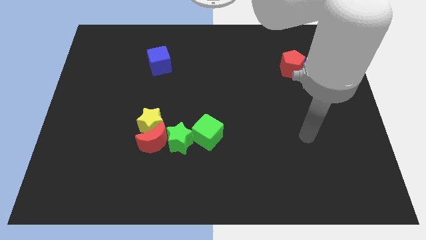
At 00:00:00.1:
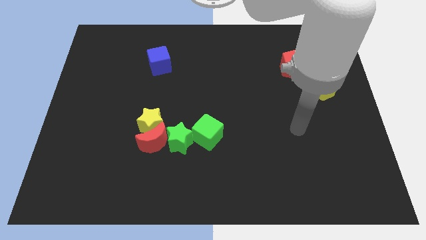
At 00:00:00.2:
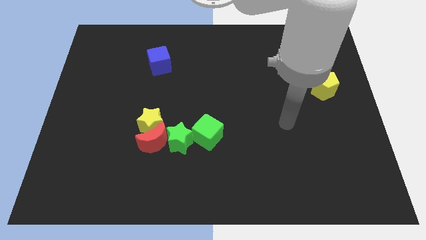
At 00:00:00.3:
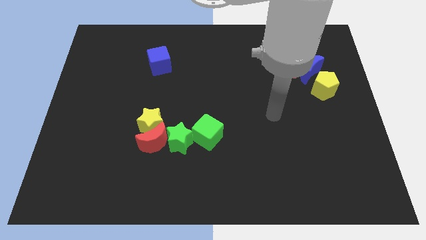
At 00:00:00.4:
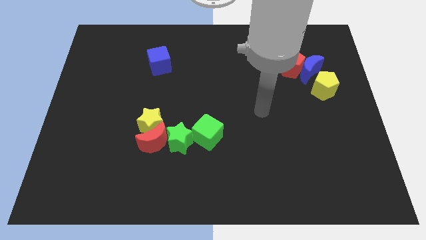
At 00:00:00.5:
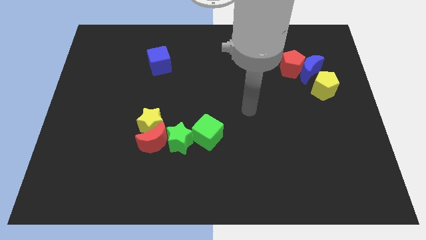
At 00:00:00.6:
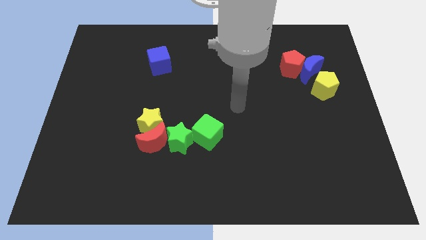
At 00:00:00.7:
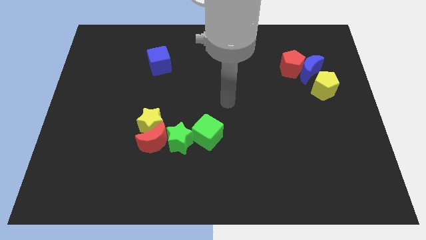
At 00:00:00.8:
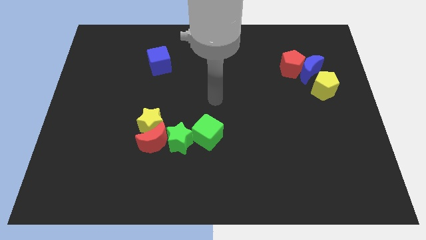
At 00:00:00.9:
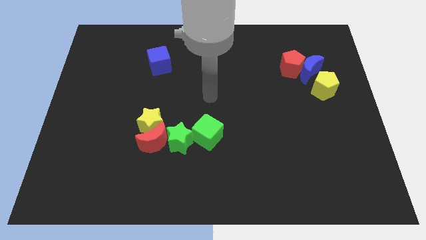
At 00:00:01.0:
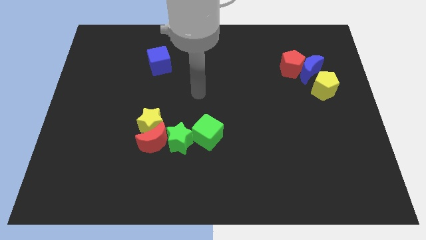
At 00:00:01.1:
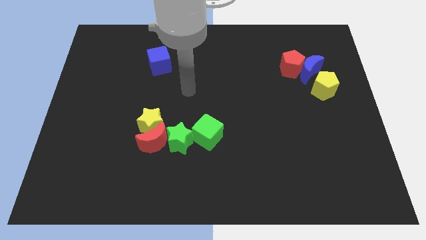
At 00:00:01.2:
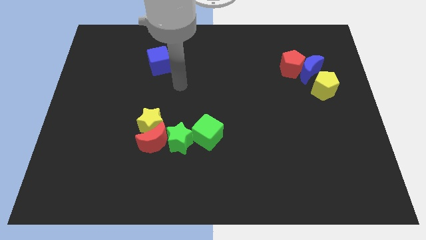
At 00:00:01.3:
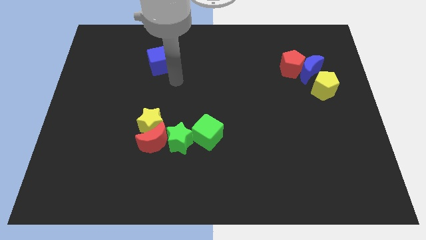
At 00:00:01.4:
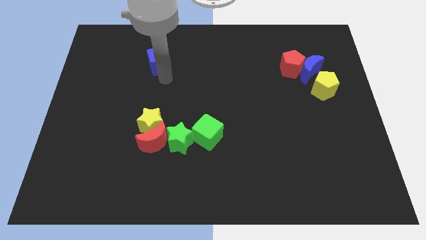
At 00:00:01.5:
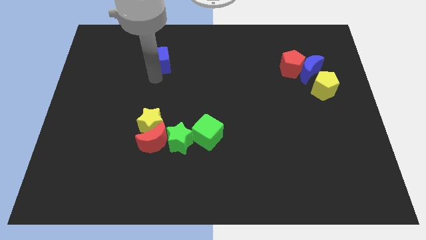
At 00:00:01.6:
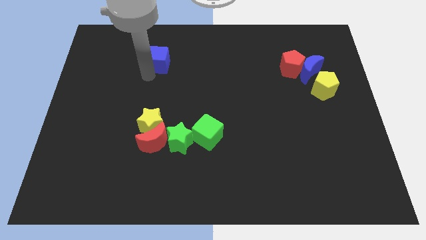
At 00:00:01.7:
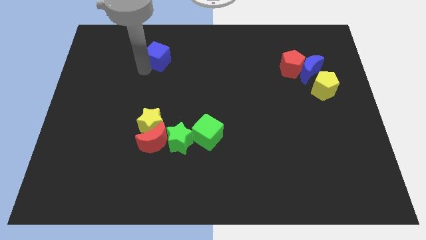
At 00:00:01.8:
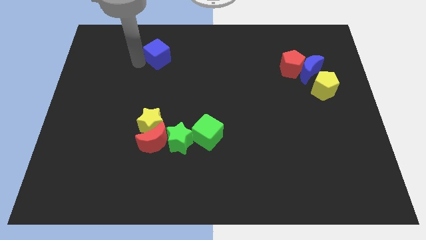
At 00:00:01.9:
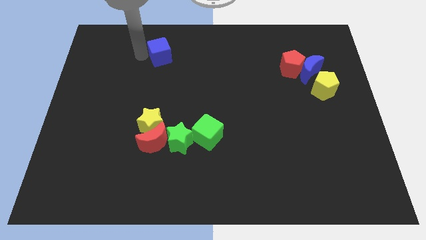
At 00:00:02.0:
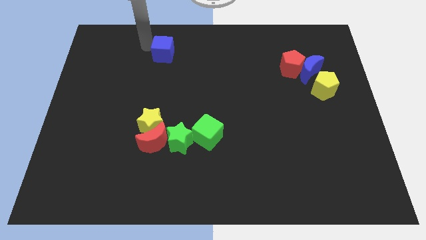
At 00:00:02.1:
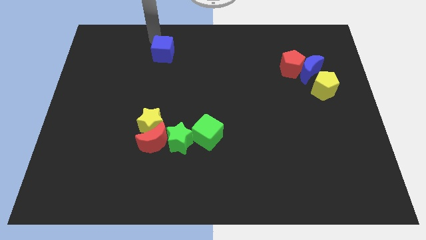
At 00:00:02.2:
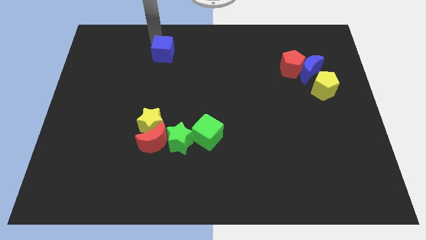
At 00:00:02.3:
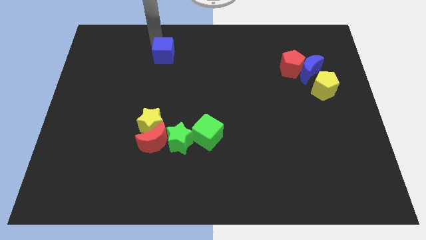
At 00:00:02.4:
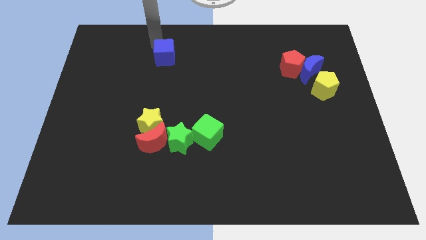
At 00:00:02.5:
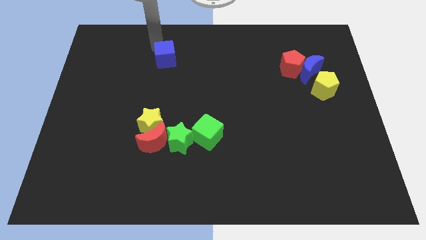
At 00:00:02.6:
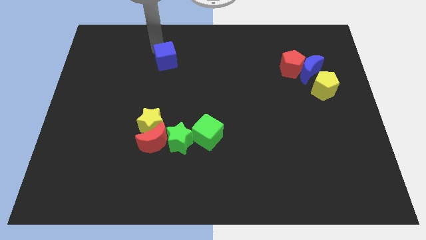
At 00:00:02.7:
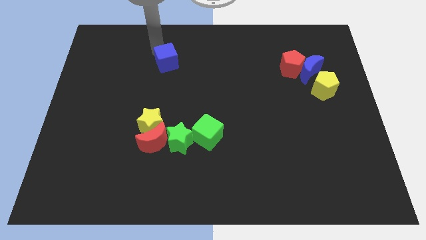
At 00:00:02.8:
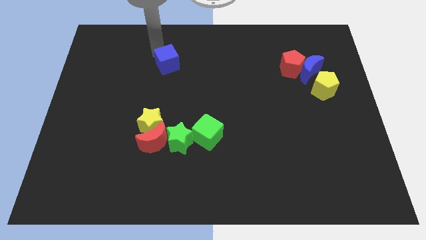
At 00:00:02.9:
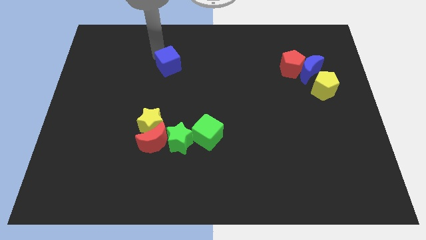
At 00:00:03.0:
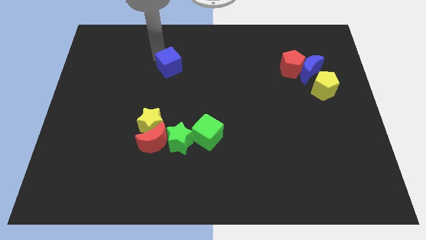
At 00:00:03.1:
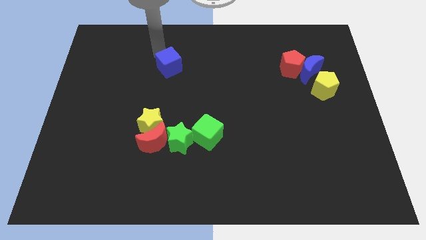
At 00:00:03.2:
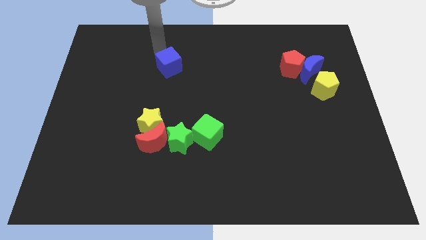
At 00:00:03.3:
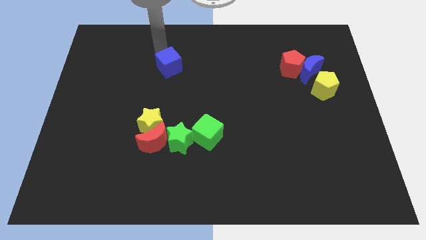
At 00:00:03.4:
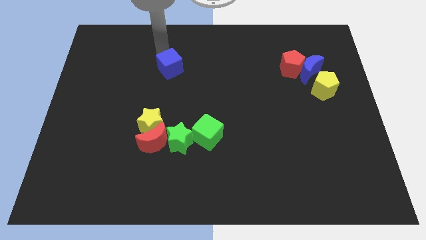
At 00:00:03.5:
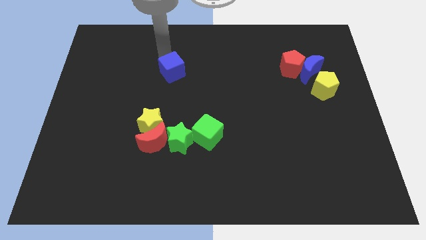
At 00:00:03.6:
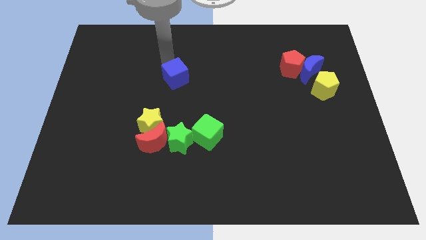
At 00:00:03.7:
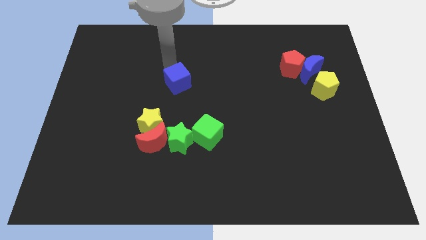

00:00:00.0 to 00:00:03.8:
slightly move the blue cube diagonally down and right

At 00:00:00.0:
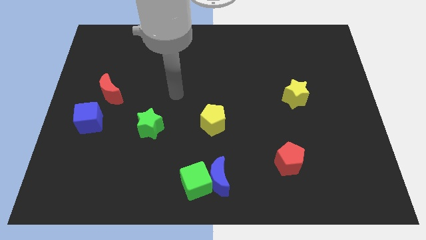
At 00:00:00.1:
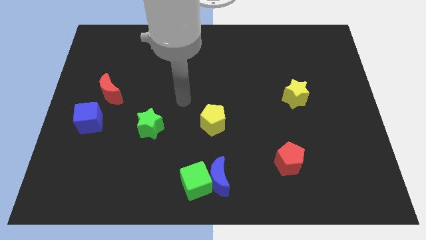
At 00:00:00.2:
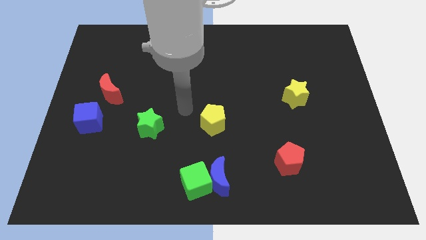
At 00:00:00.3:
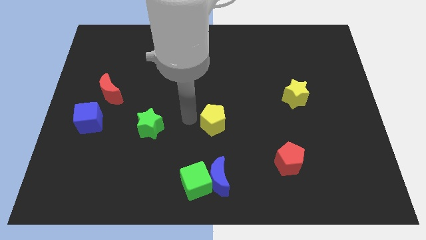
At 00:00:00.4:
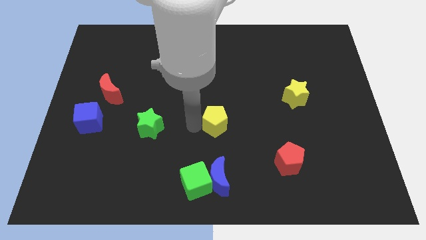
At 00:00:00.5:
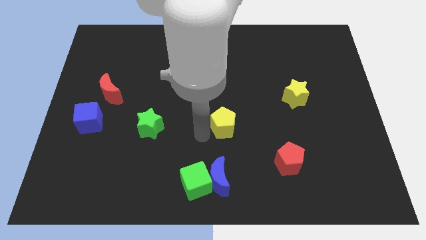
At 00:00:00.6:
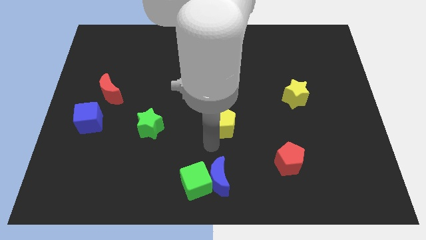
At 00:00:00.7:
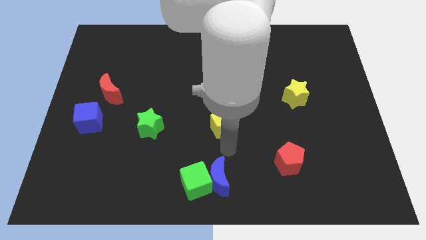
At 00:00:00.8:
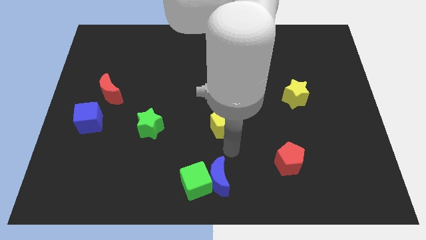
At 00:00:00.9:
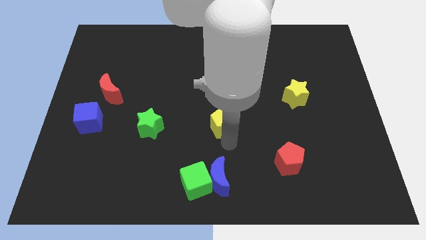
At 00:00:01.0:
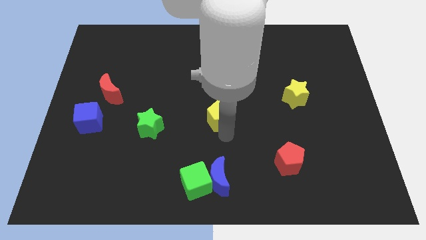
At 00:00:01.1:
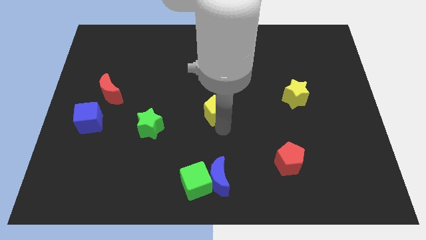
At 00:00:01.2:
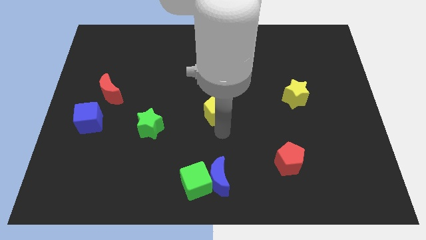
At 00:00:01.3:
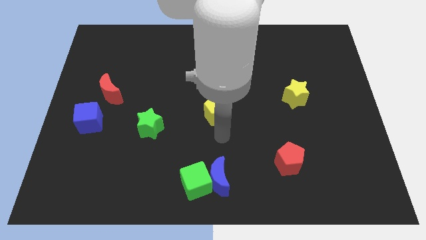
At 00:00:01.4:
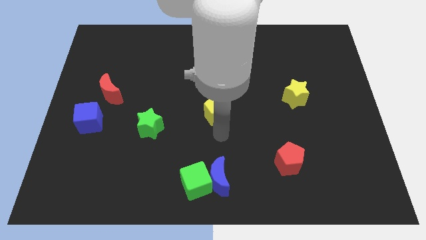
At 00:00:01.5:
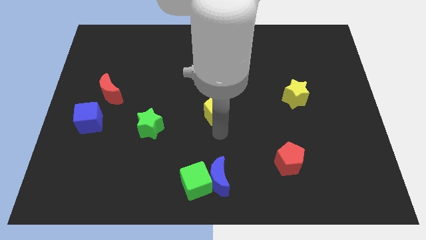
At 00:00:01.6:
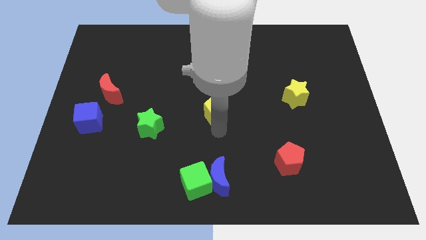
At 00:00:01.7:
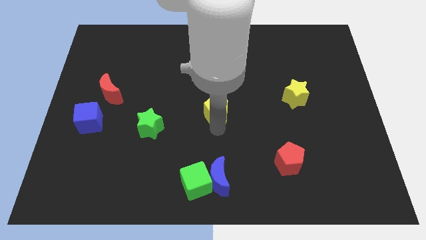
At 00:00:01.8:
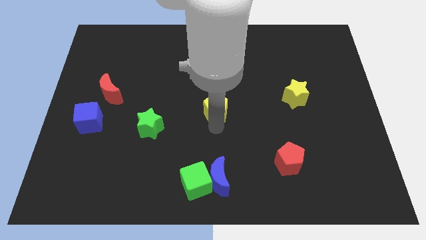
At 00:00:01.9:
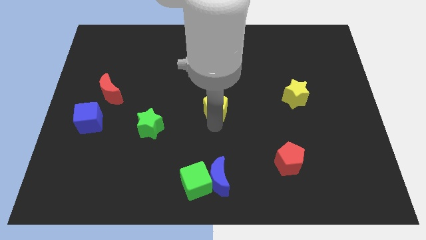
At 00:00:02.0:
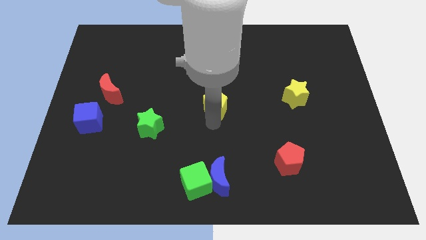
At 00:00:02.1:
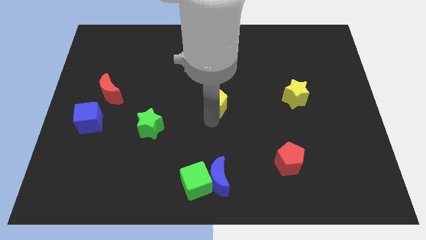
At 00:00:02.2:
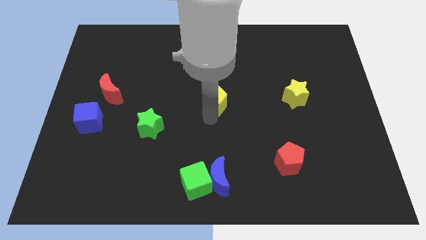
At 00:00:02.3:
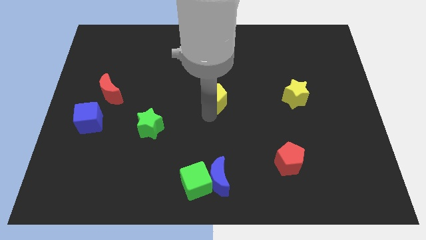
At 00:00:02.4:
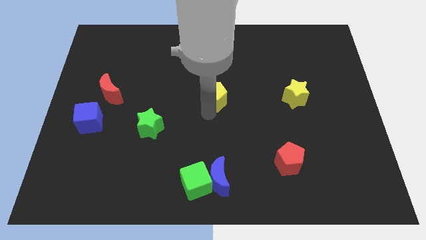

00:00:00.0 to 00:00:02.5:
slide the yellow pentagon up slightly

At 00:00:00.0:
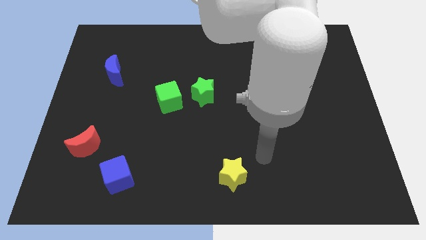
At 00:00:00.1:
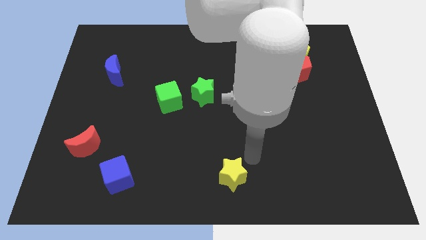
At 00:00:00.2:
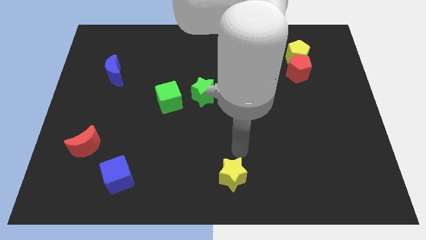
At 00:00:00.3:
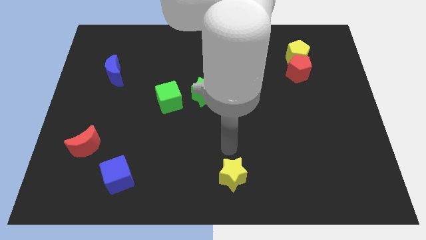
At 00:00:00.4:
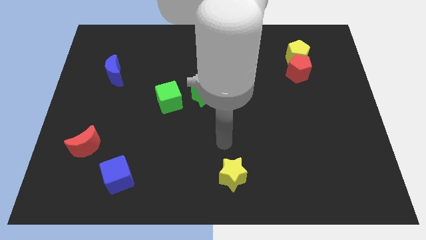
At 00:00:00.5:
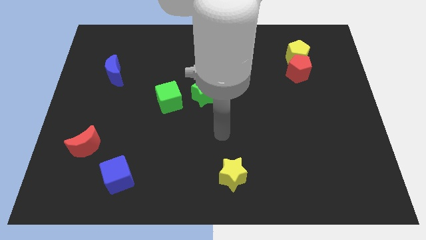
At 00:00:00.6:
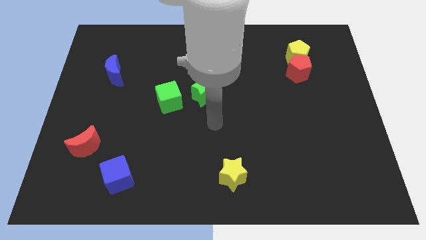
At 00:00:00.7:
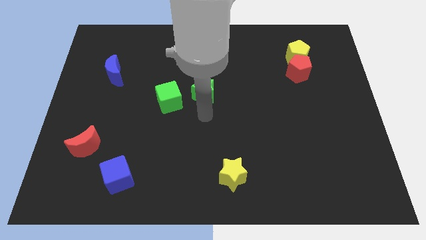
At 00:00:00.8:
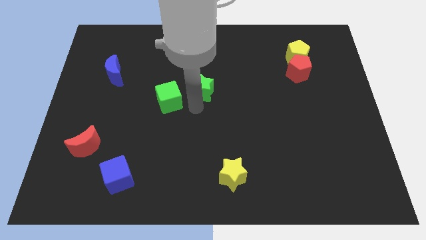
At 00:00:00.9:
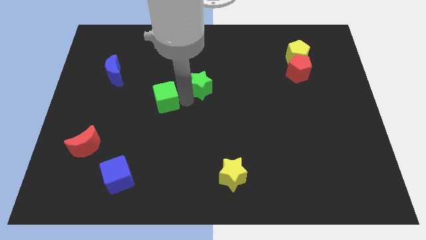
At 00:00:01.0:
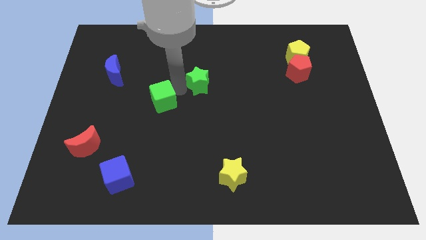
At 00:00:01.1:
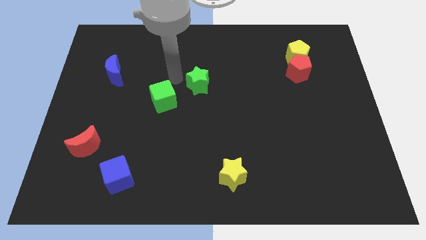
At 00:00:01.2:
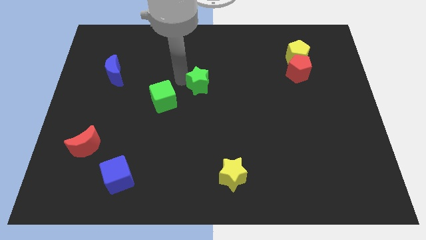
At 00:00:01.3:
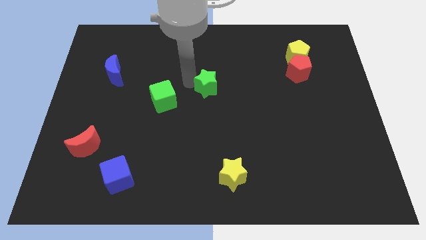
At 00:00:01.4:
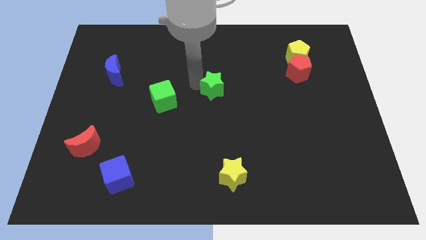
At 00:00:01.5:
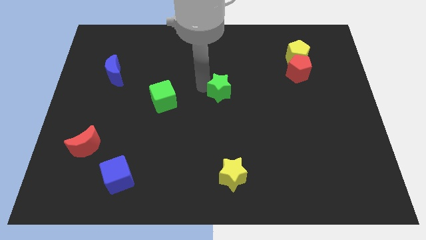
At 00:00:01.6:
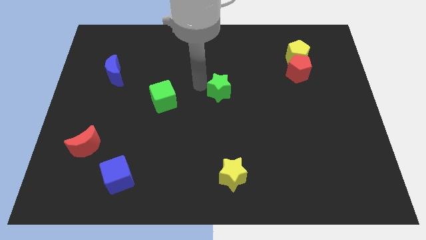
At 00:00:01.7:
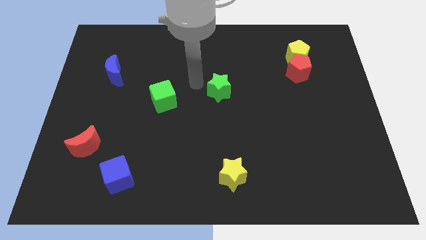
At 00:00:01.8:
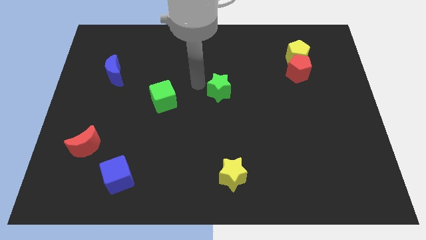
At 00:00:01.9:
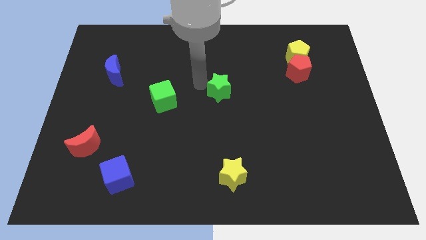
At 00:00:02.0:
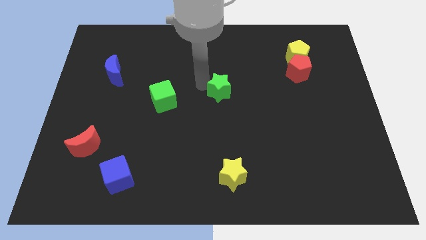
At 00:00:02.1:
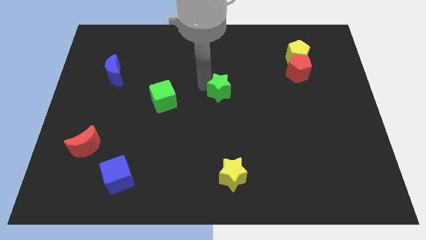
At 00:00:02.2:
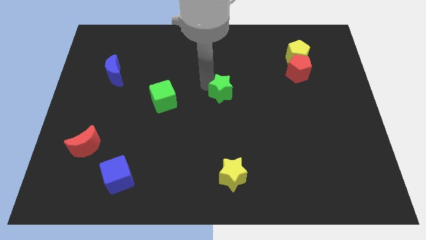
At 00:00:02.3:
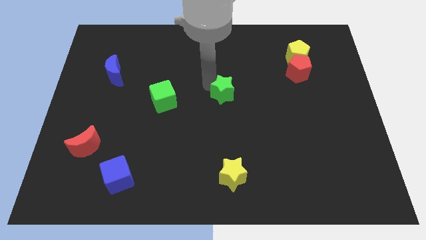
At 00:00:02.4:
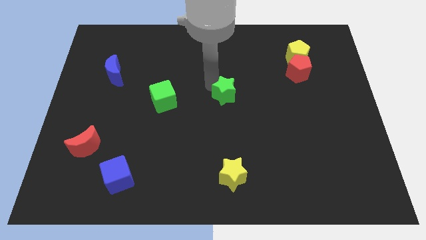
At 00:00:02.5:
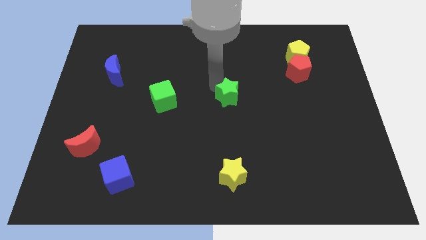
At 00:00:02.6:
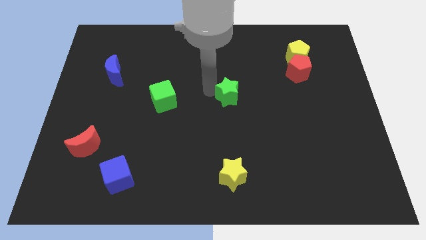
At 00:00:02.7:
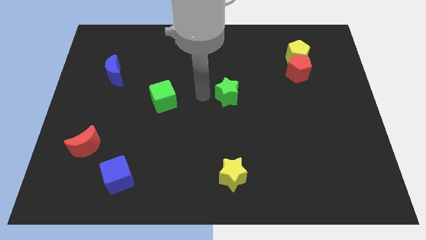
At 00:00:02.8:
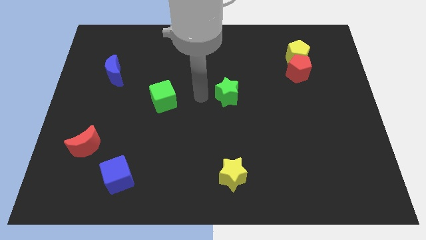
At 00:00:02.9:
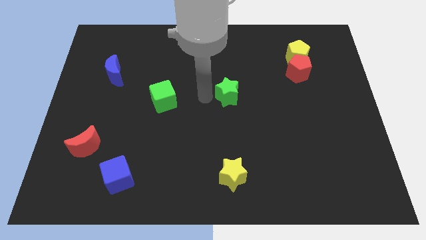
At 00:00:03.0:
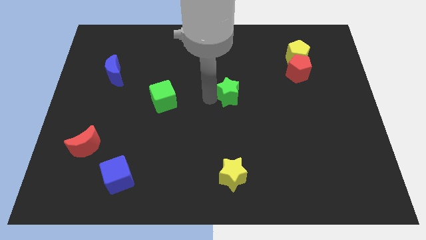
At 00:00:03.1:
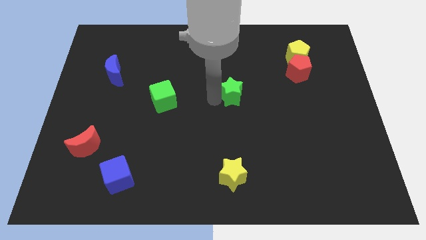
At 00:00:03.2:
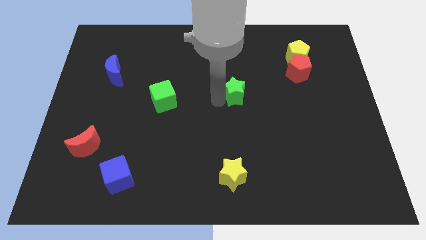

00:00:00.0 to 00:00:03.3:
move the green star right a little bit
